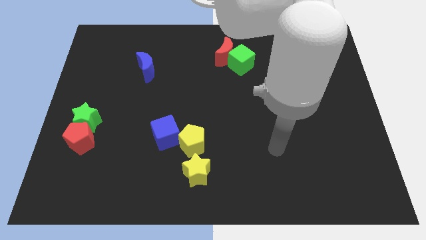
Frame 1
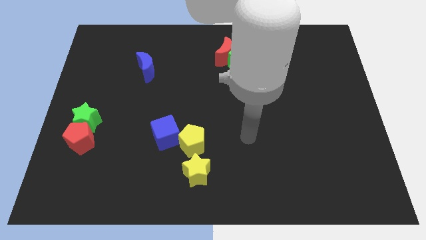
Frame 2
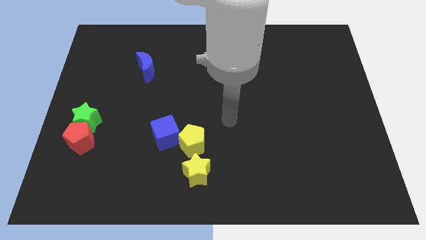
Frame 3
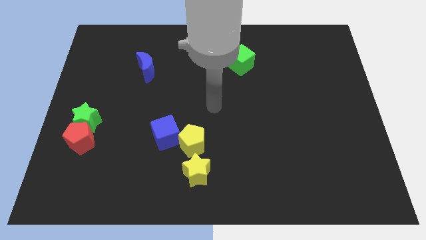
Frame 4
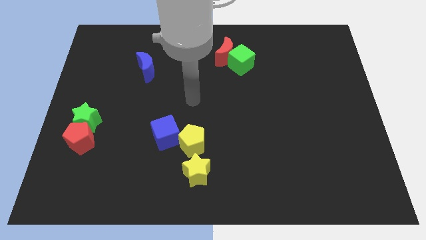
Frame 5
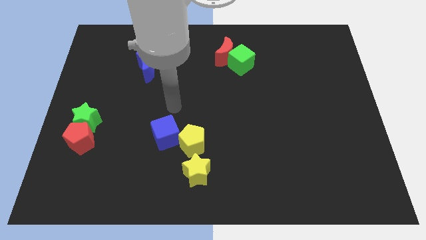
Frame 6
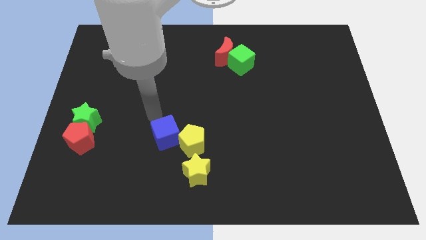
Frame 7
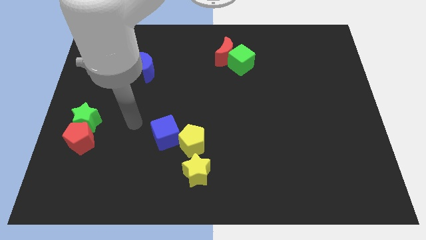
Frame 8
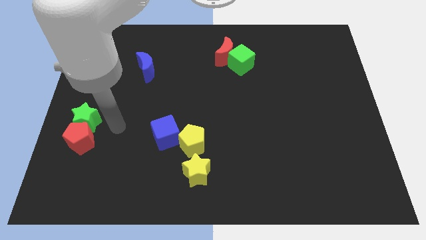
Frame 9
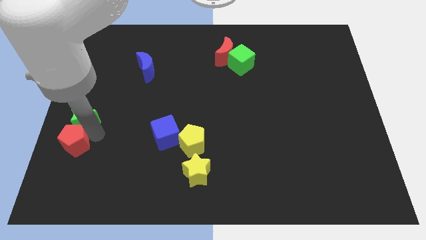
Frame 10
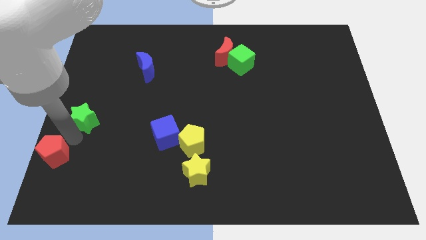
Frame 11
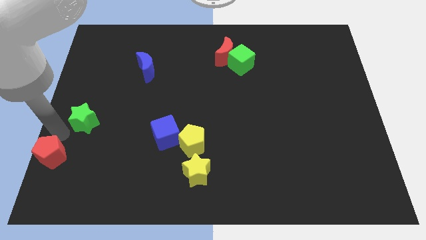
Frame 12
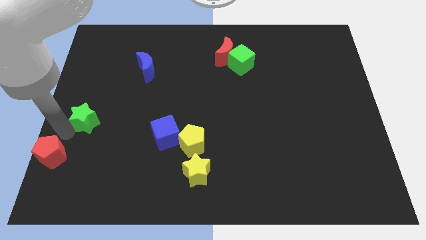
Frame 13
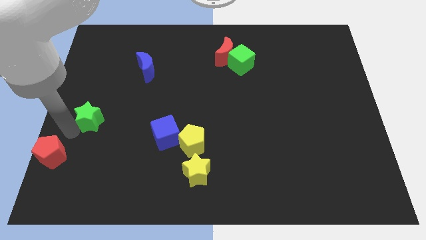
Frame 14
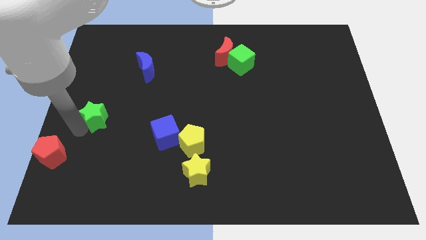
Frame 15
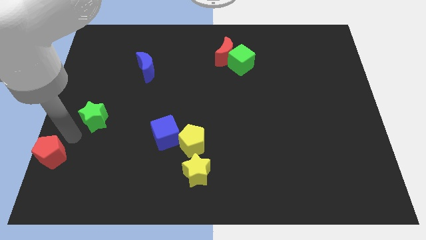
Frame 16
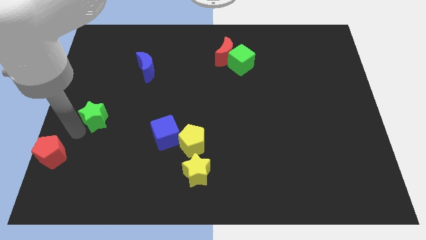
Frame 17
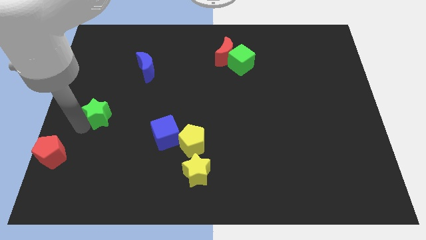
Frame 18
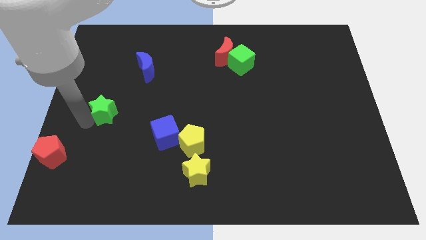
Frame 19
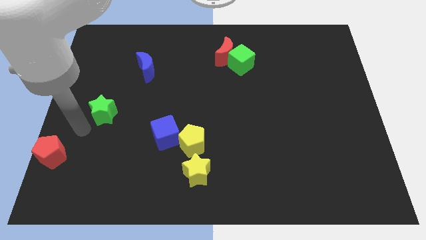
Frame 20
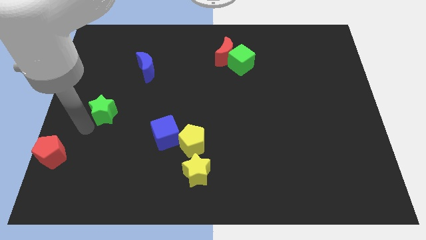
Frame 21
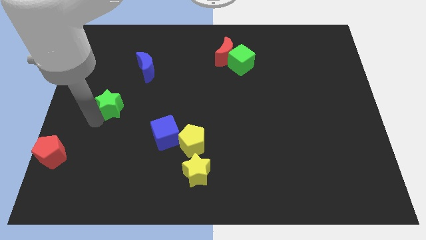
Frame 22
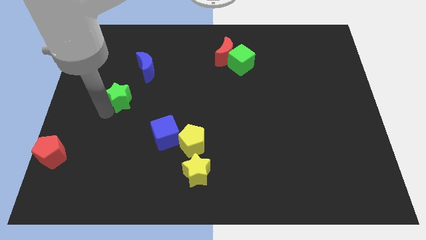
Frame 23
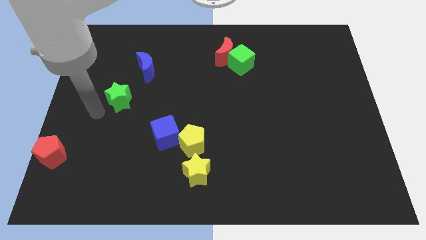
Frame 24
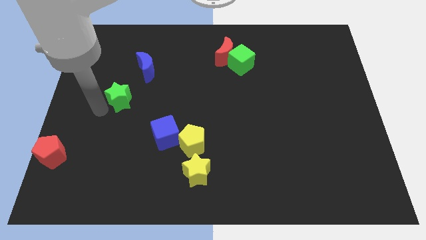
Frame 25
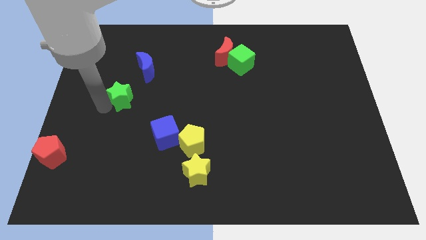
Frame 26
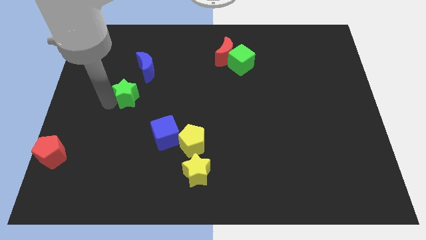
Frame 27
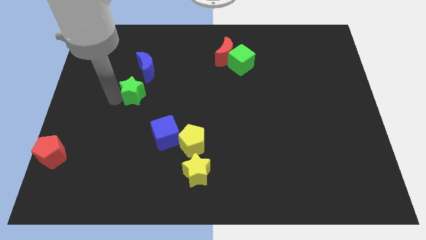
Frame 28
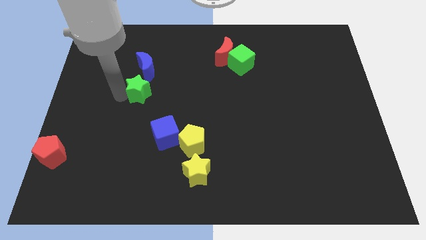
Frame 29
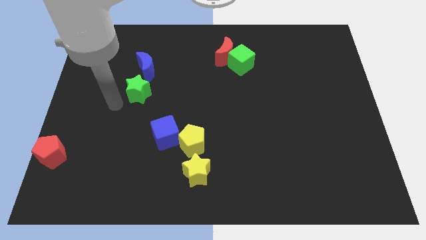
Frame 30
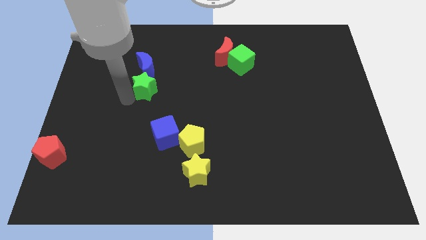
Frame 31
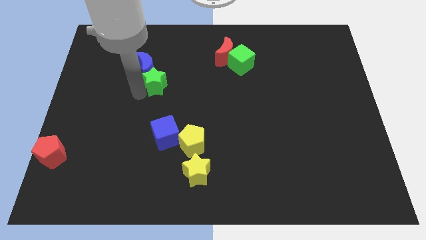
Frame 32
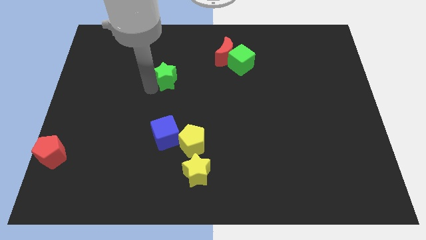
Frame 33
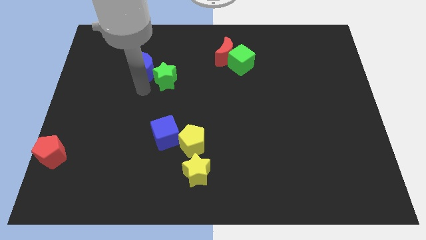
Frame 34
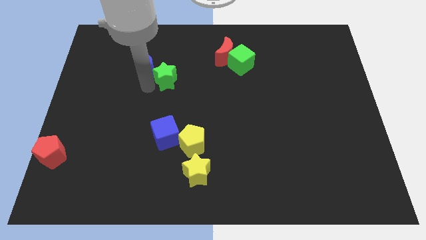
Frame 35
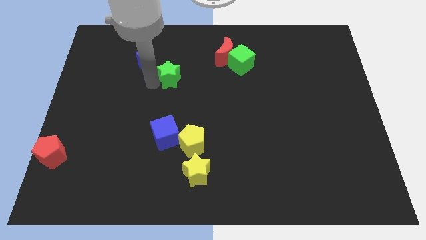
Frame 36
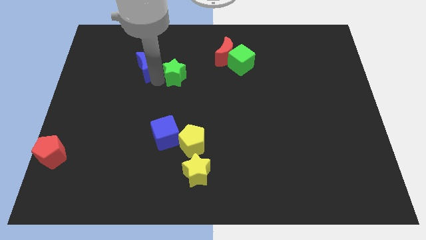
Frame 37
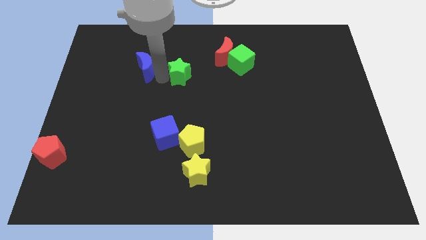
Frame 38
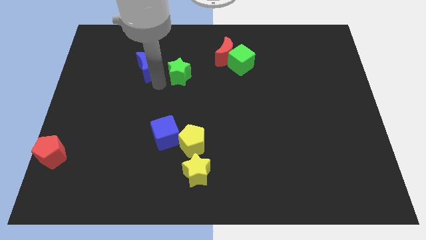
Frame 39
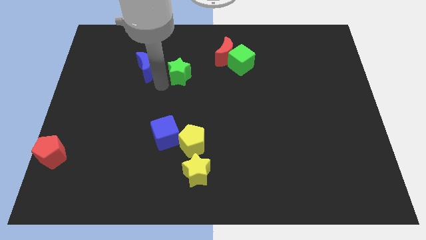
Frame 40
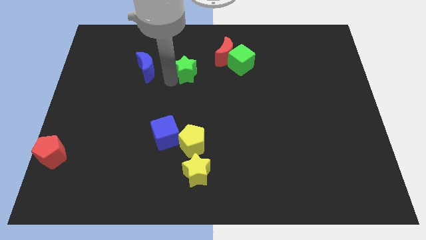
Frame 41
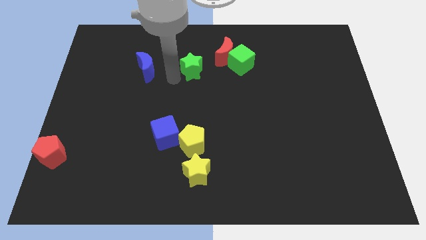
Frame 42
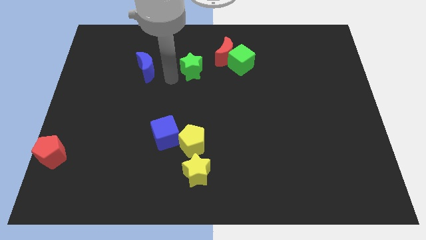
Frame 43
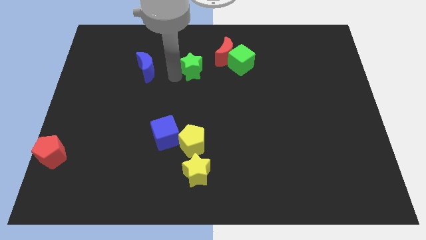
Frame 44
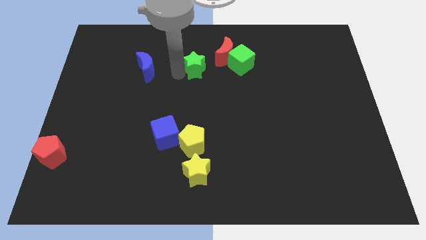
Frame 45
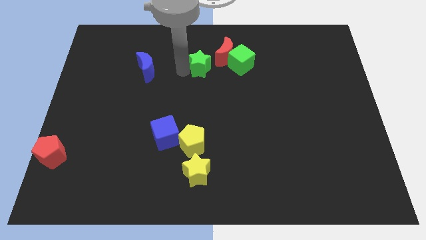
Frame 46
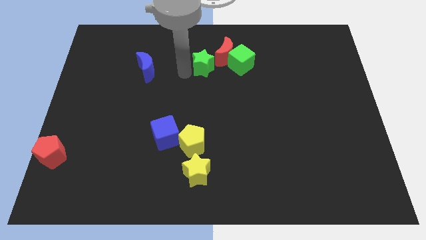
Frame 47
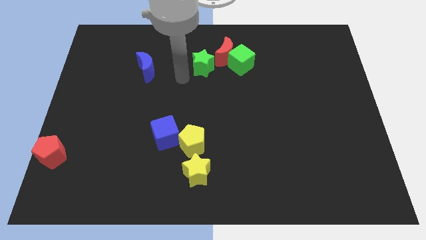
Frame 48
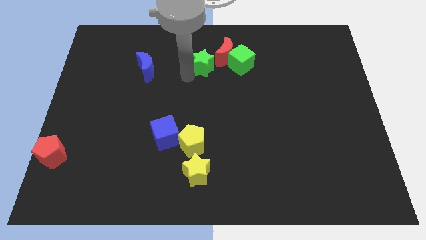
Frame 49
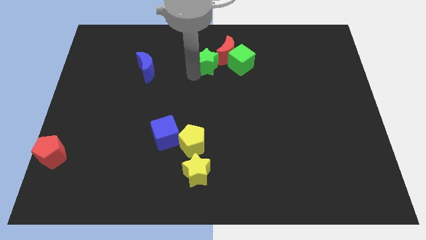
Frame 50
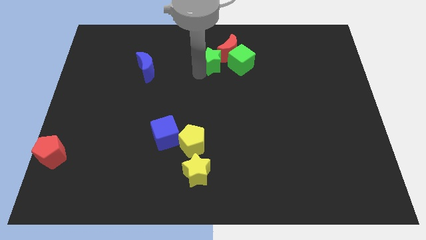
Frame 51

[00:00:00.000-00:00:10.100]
move the green star to the red moon

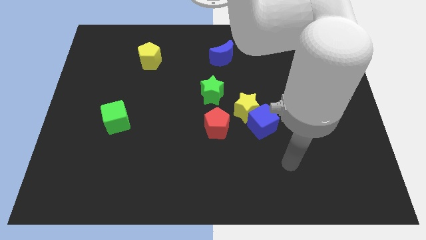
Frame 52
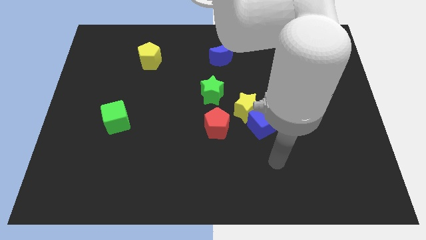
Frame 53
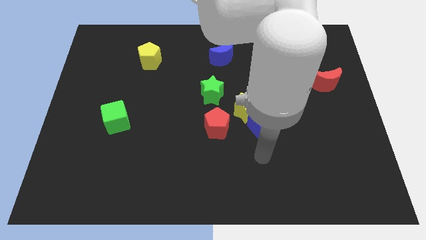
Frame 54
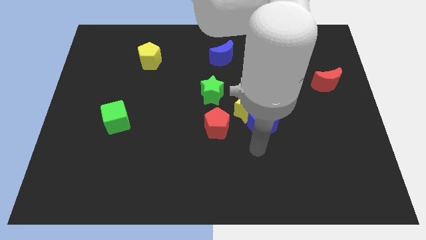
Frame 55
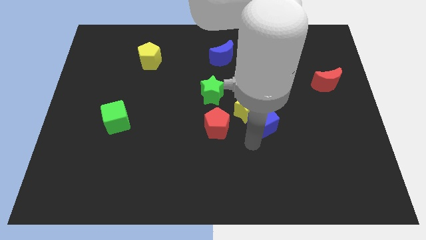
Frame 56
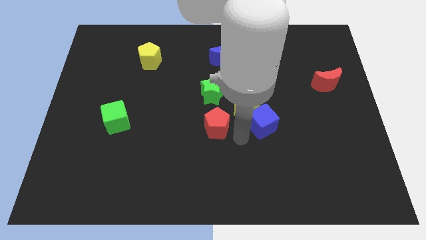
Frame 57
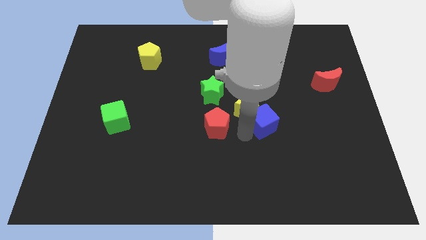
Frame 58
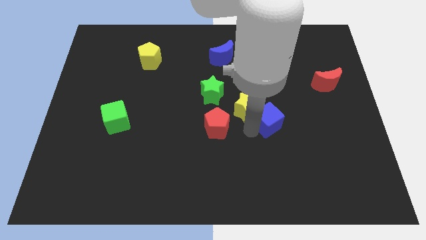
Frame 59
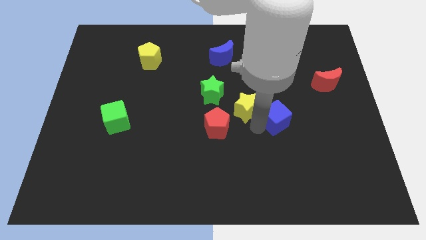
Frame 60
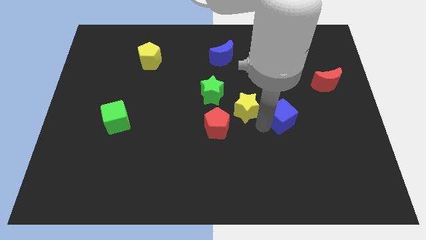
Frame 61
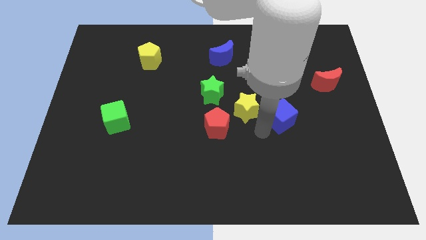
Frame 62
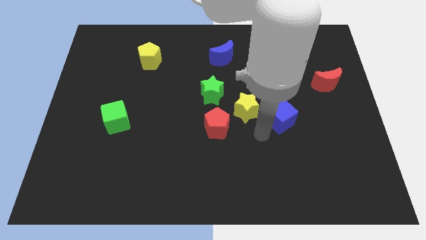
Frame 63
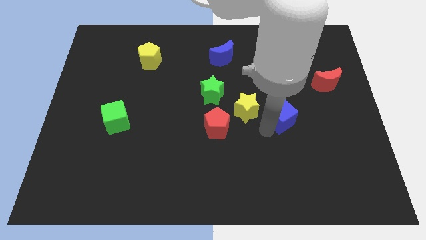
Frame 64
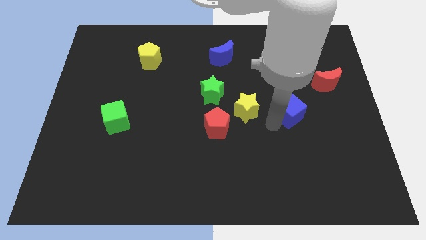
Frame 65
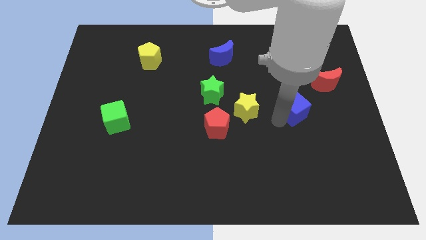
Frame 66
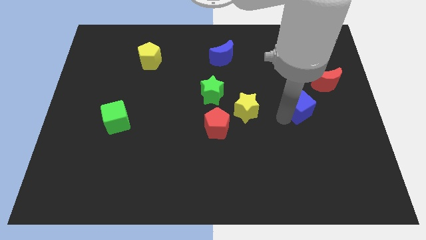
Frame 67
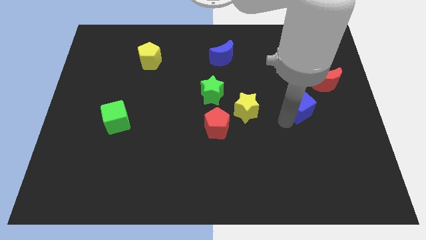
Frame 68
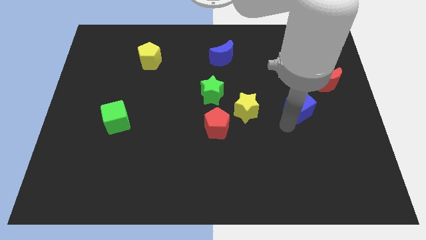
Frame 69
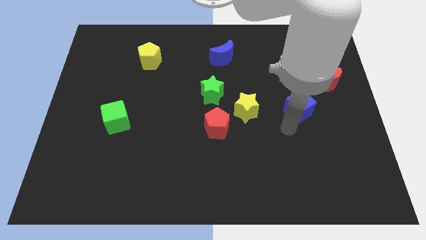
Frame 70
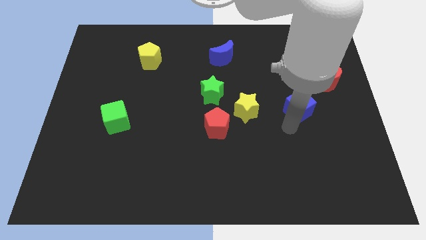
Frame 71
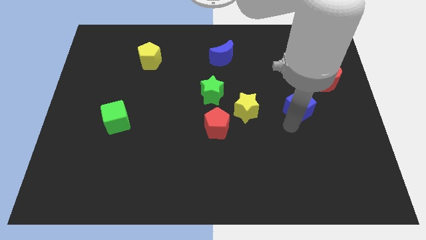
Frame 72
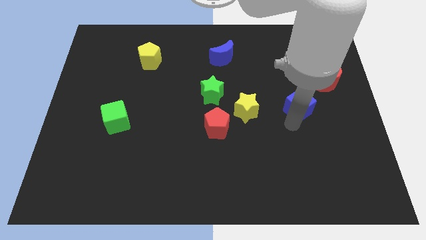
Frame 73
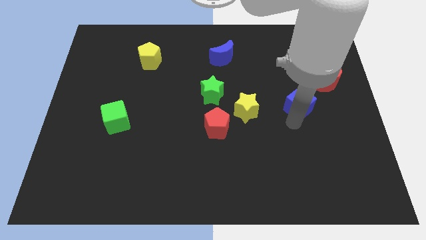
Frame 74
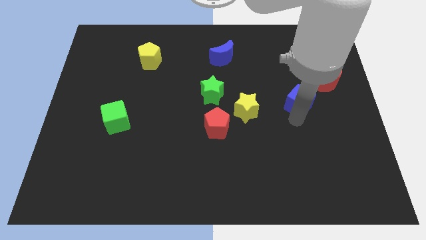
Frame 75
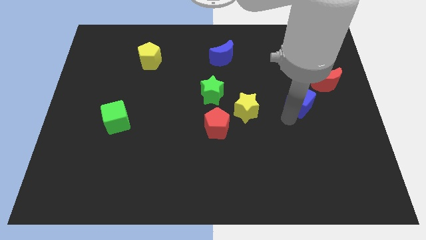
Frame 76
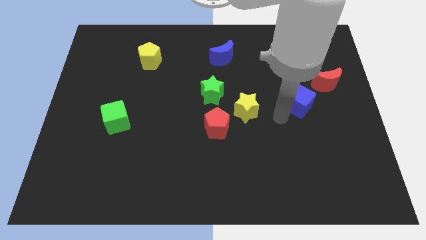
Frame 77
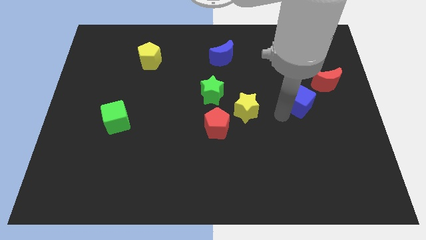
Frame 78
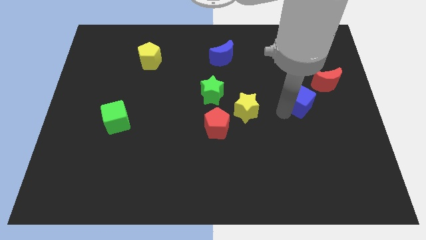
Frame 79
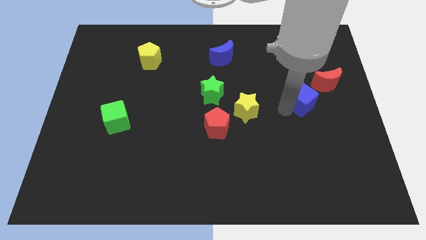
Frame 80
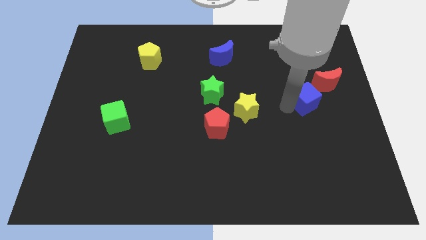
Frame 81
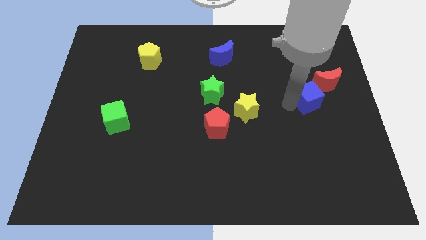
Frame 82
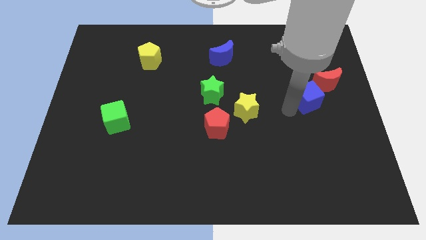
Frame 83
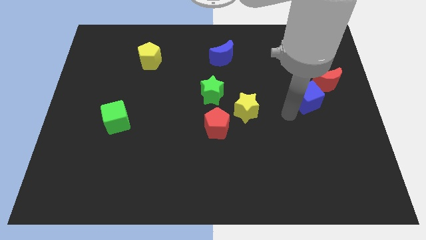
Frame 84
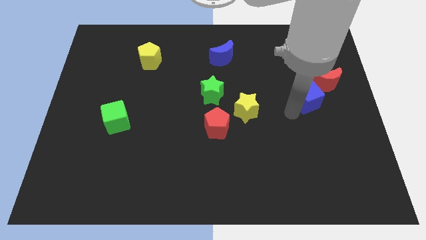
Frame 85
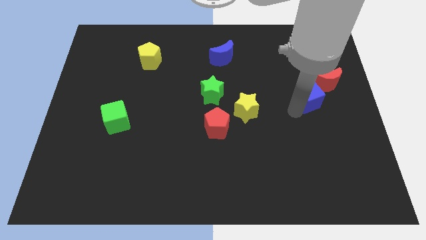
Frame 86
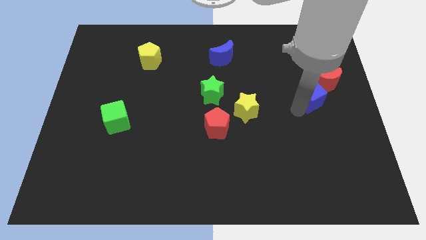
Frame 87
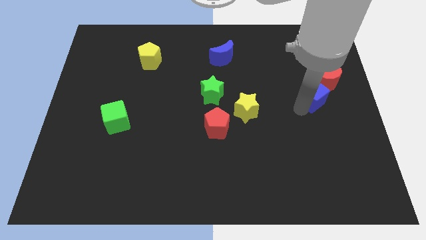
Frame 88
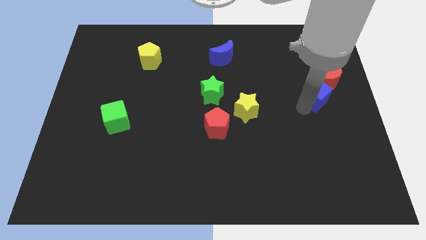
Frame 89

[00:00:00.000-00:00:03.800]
move the blue cube to the red moon
